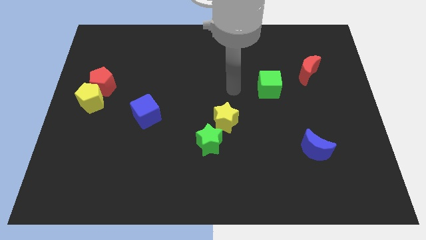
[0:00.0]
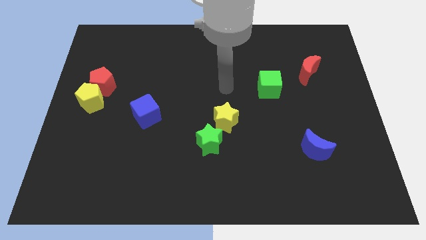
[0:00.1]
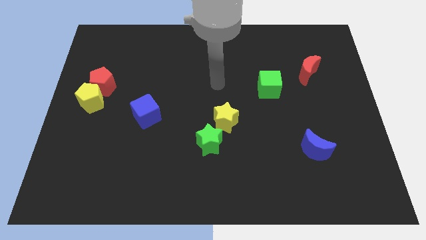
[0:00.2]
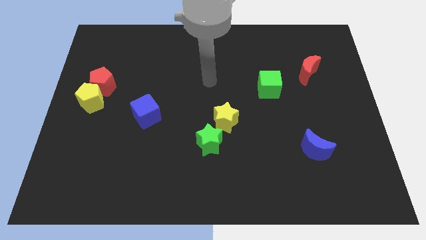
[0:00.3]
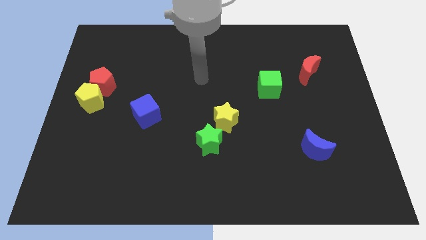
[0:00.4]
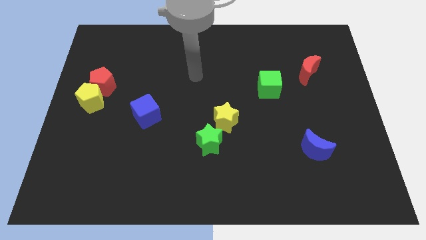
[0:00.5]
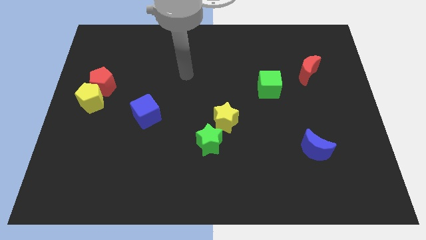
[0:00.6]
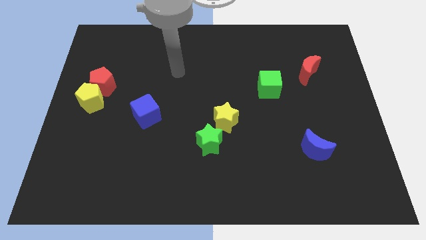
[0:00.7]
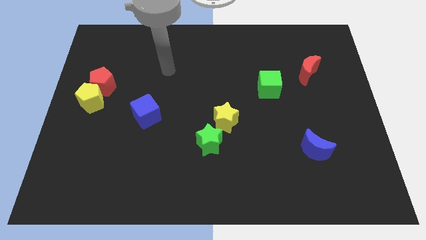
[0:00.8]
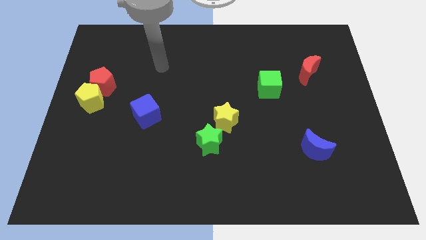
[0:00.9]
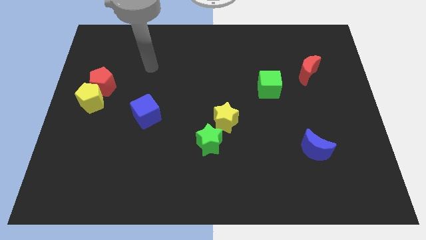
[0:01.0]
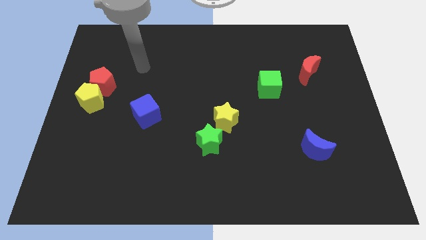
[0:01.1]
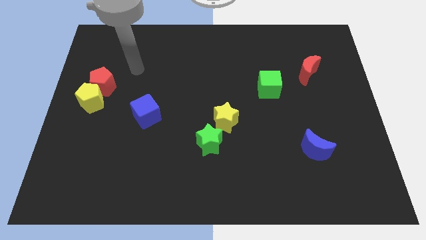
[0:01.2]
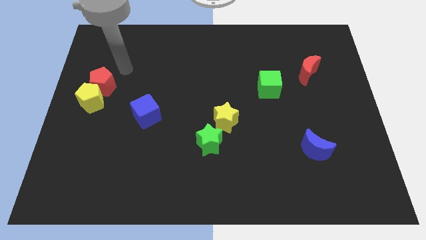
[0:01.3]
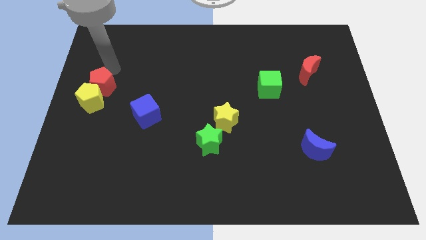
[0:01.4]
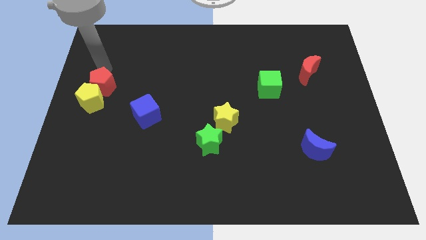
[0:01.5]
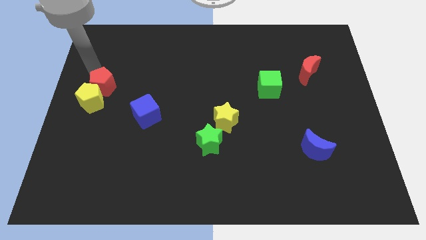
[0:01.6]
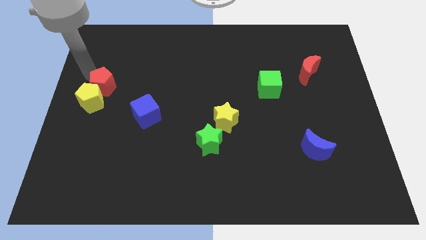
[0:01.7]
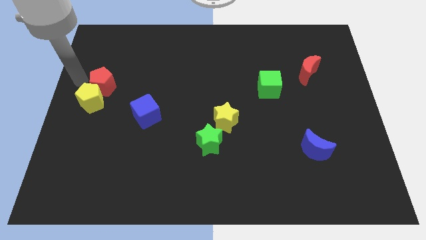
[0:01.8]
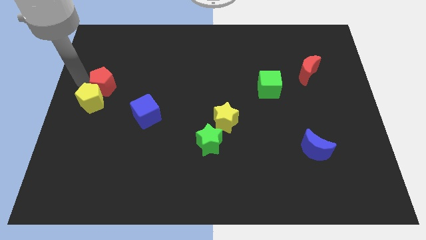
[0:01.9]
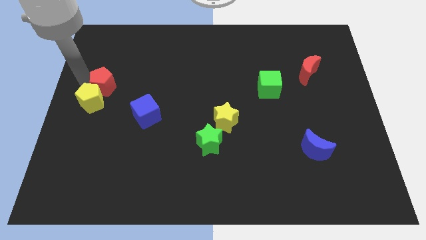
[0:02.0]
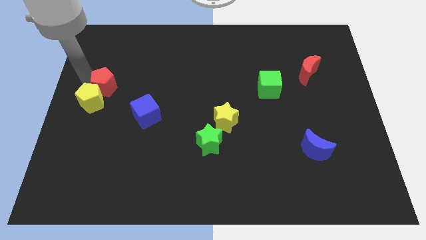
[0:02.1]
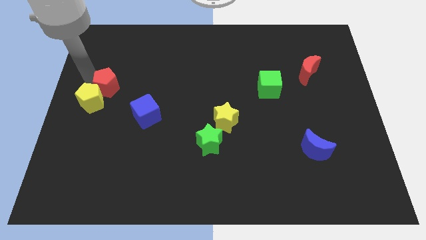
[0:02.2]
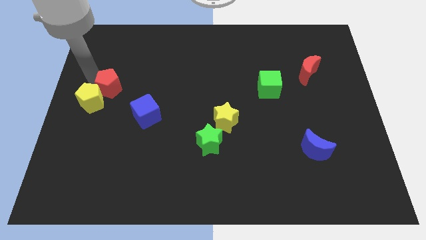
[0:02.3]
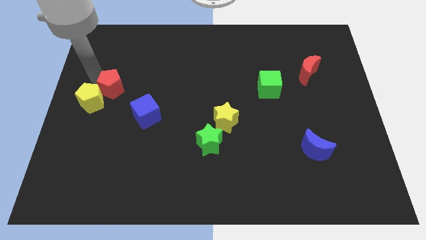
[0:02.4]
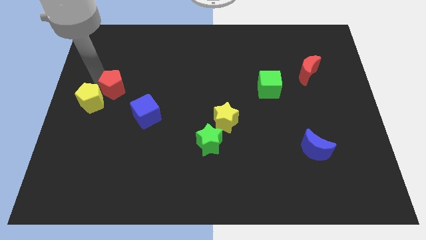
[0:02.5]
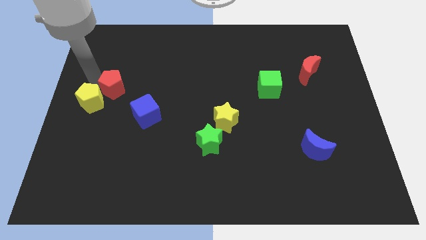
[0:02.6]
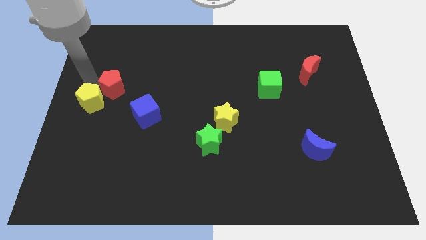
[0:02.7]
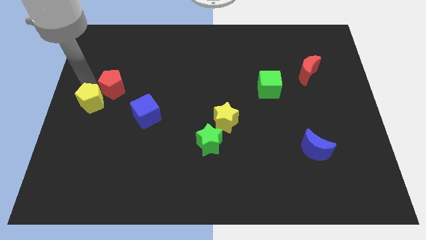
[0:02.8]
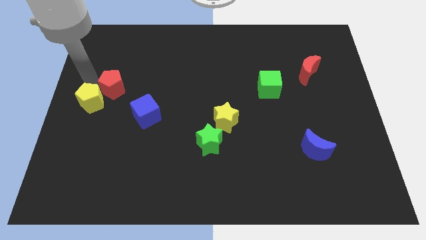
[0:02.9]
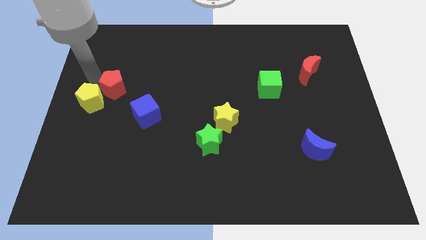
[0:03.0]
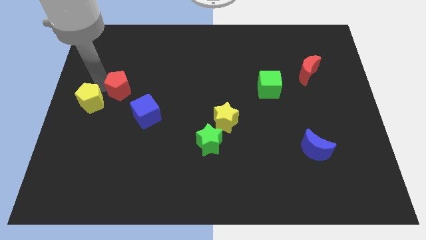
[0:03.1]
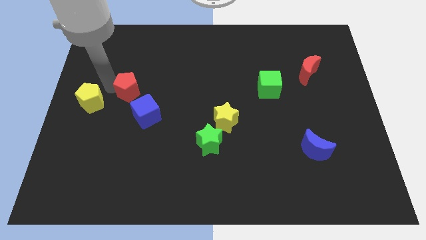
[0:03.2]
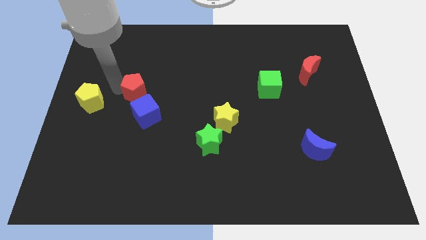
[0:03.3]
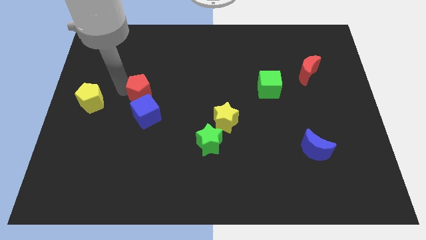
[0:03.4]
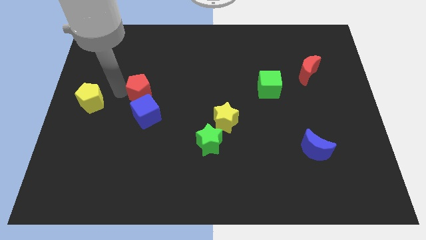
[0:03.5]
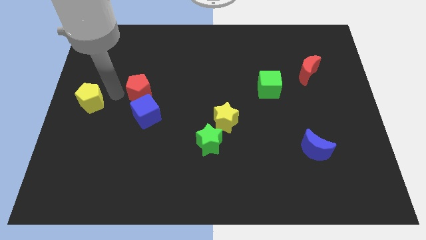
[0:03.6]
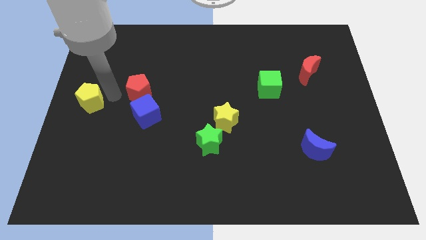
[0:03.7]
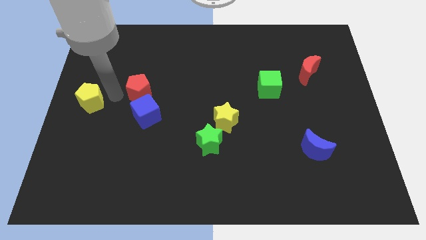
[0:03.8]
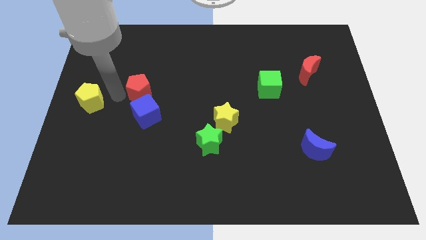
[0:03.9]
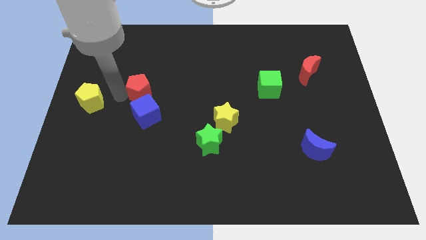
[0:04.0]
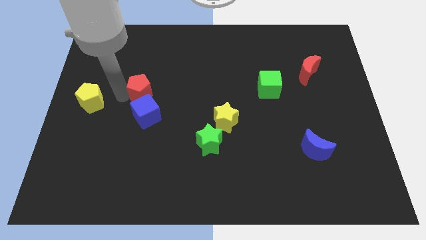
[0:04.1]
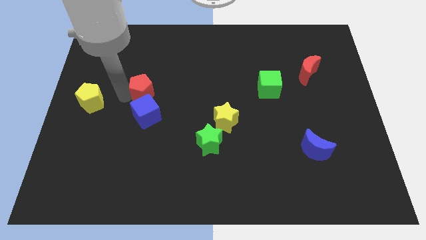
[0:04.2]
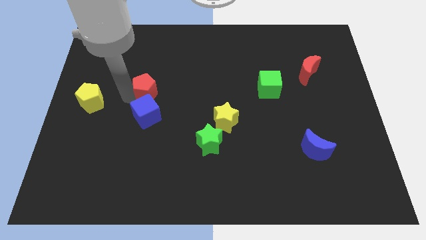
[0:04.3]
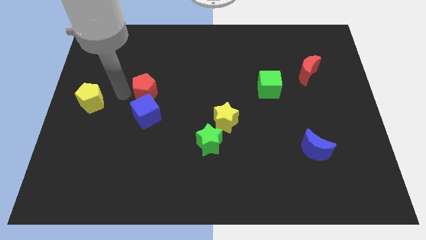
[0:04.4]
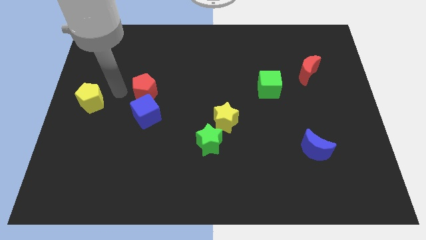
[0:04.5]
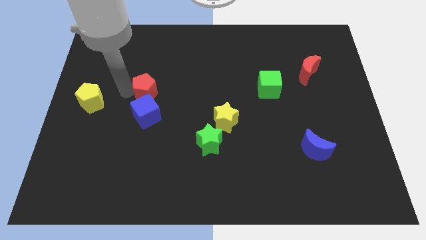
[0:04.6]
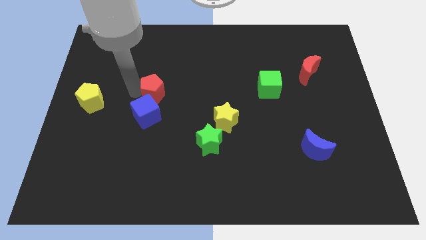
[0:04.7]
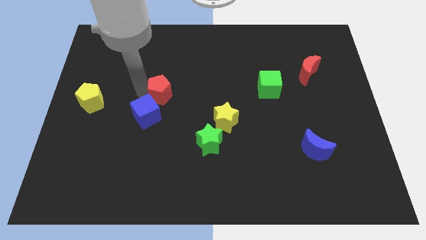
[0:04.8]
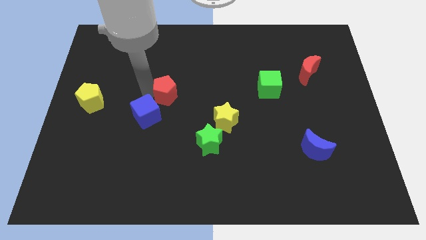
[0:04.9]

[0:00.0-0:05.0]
move the red pentagon to the middle

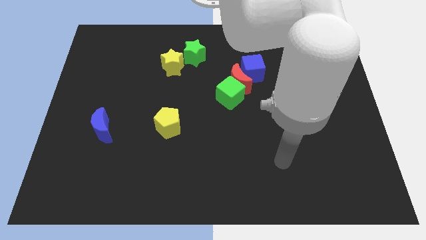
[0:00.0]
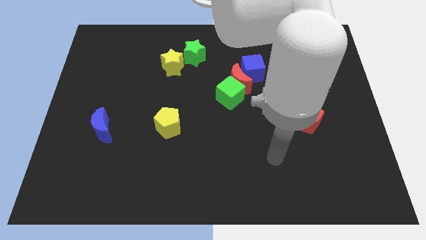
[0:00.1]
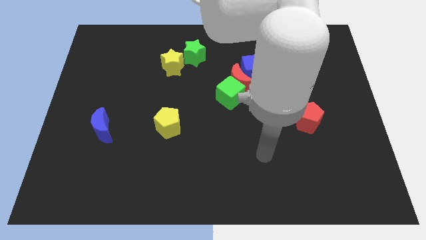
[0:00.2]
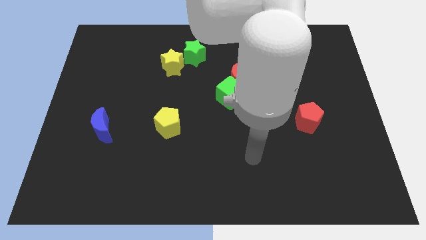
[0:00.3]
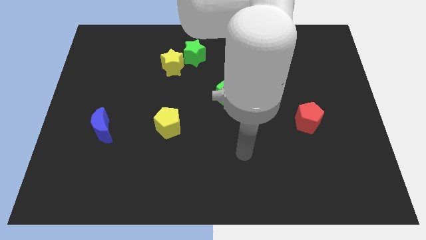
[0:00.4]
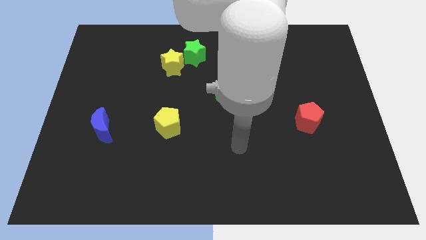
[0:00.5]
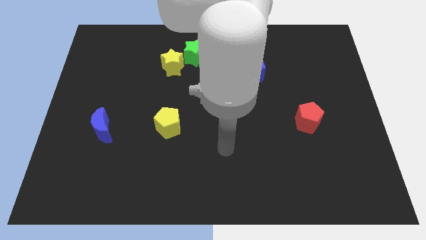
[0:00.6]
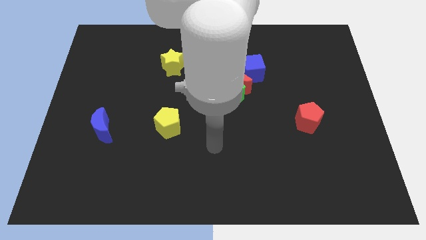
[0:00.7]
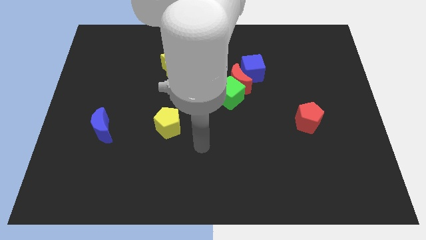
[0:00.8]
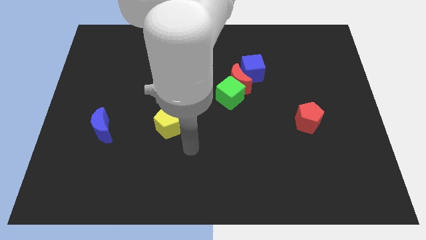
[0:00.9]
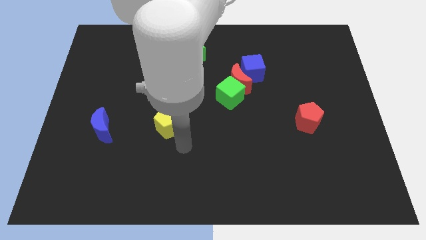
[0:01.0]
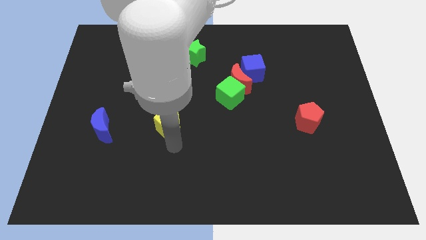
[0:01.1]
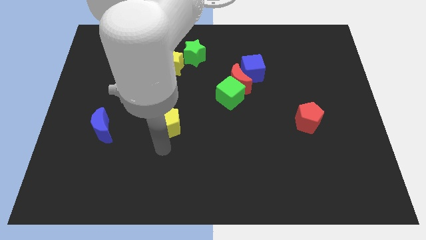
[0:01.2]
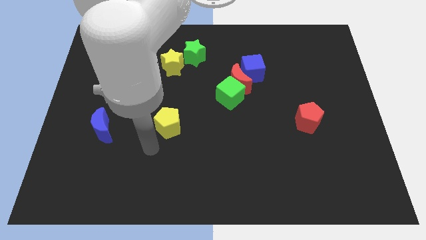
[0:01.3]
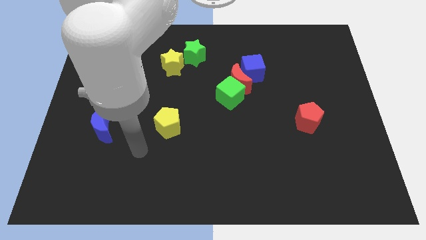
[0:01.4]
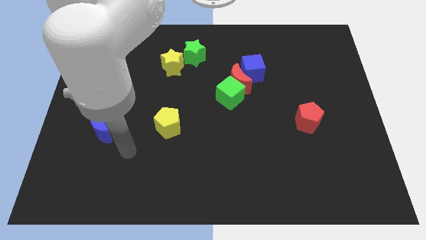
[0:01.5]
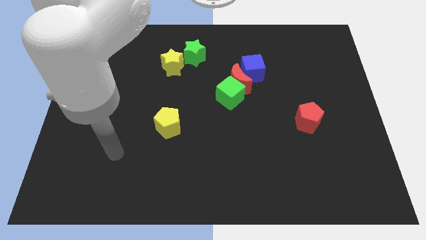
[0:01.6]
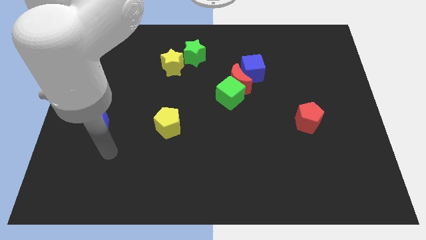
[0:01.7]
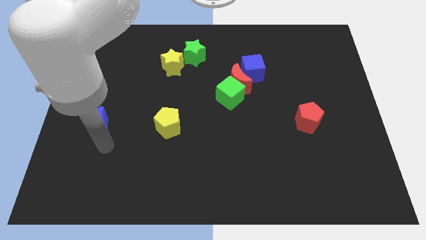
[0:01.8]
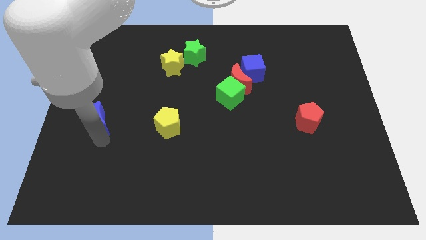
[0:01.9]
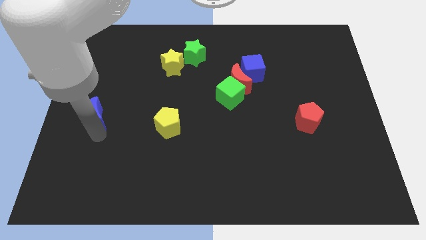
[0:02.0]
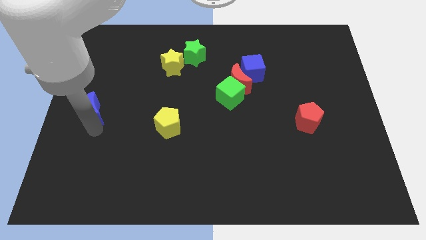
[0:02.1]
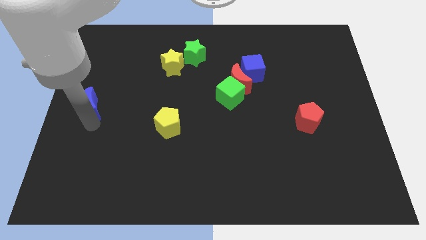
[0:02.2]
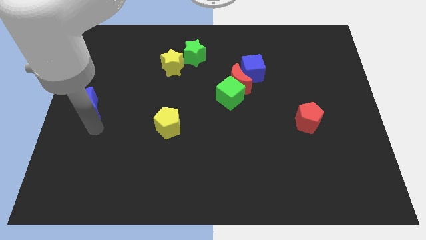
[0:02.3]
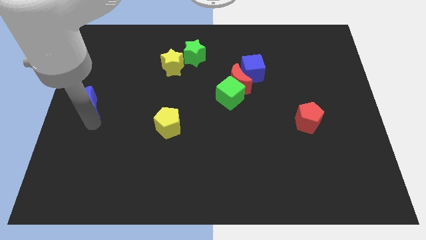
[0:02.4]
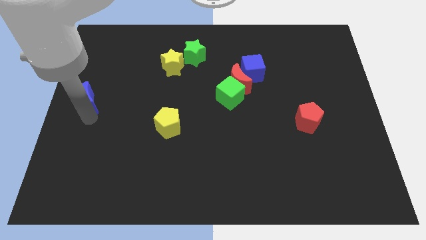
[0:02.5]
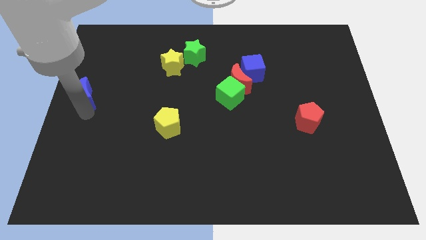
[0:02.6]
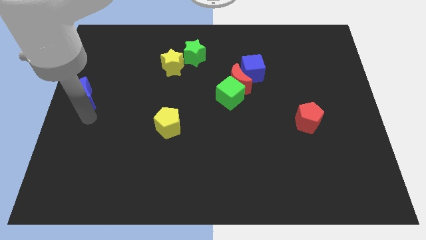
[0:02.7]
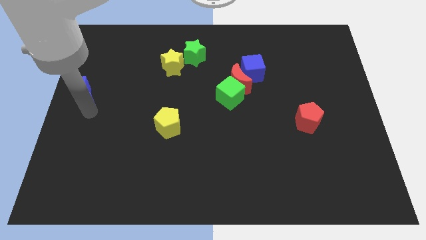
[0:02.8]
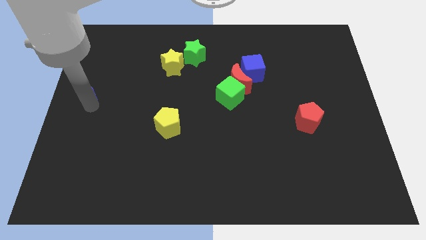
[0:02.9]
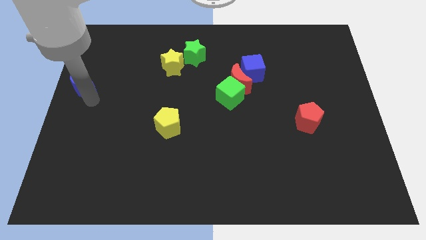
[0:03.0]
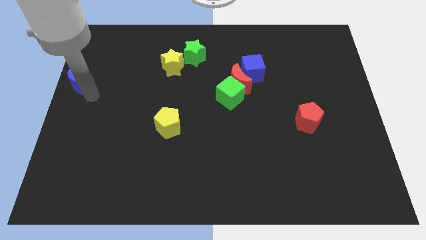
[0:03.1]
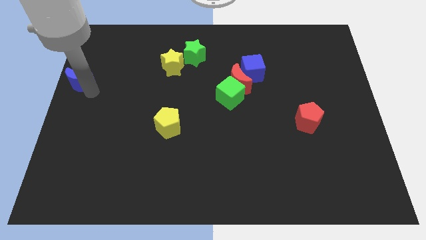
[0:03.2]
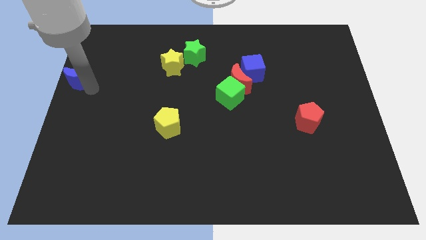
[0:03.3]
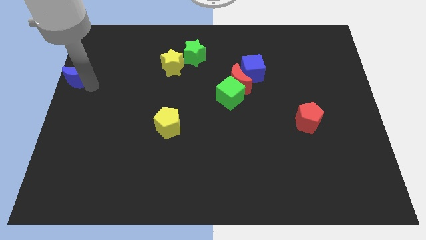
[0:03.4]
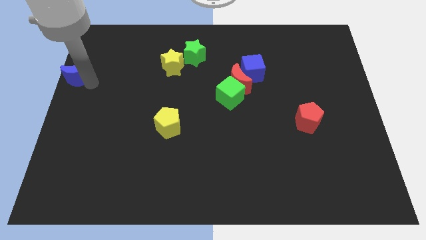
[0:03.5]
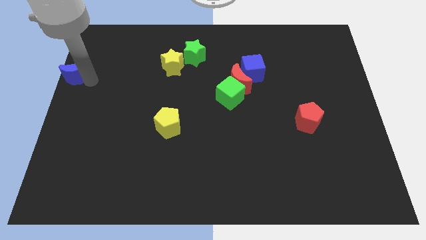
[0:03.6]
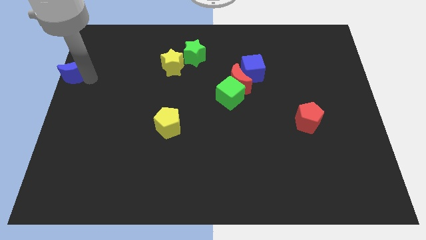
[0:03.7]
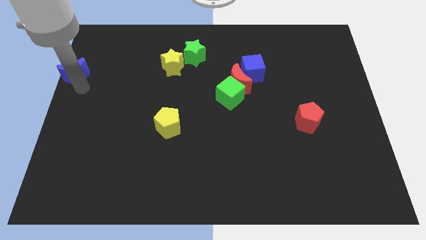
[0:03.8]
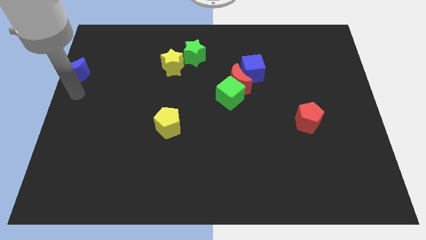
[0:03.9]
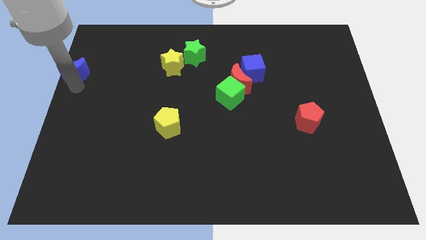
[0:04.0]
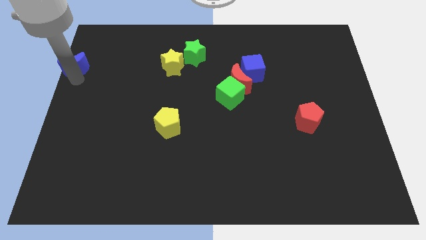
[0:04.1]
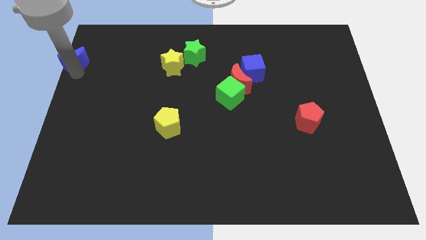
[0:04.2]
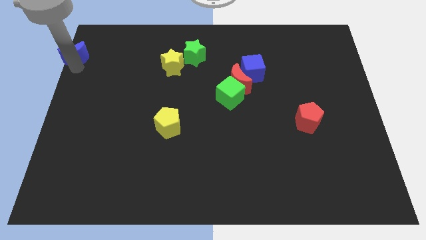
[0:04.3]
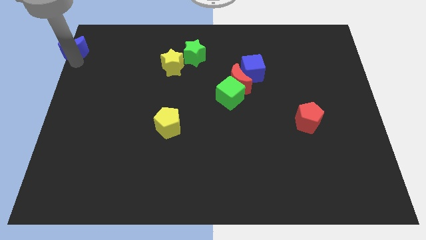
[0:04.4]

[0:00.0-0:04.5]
move the blue moon to the top left of the board
